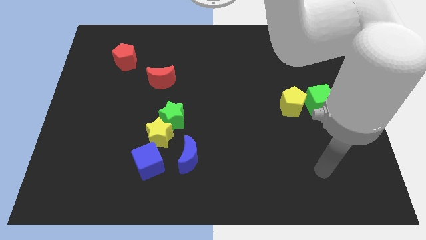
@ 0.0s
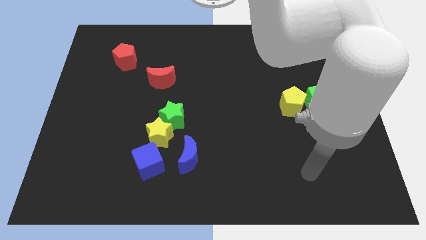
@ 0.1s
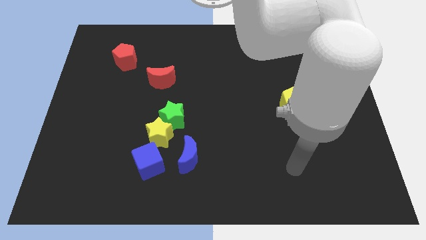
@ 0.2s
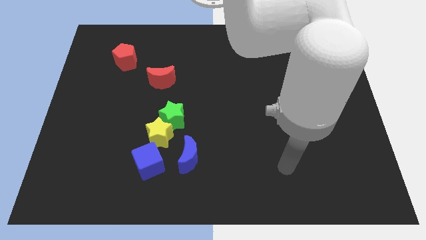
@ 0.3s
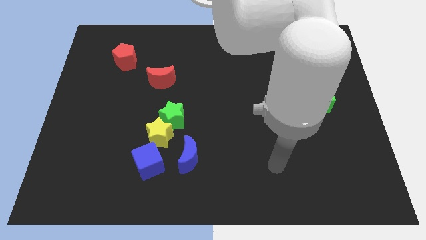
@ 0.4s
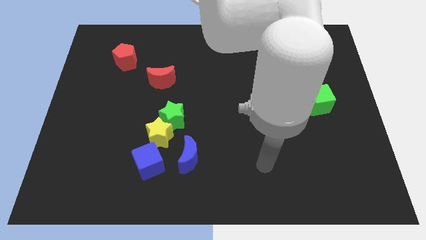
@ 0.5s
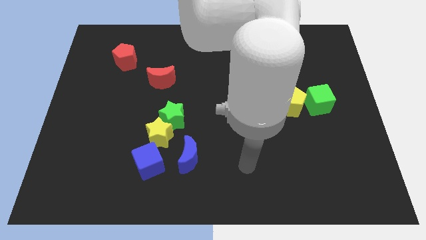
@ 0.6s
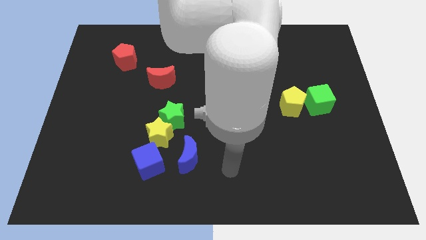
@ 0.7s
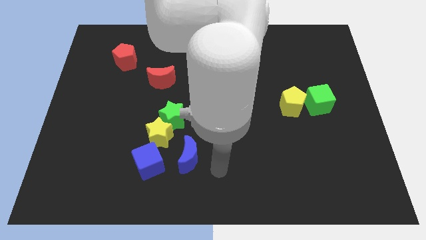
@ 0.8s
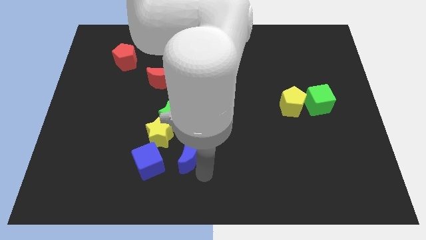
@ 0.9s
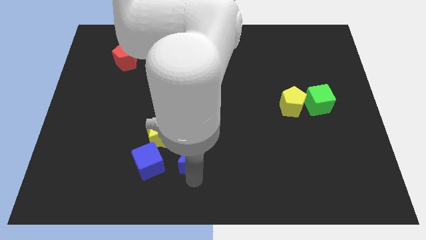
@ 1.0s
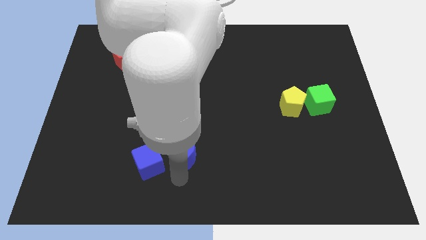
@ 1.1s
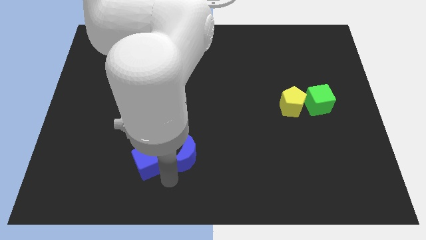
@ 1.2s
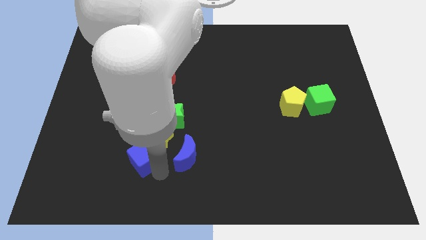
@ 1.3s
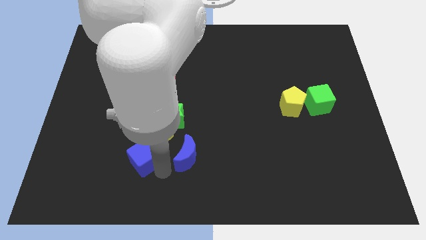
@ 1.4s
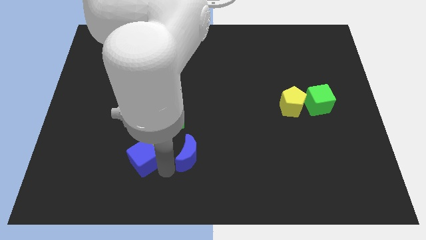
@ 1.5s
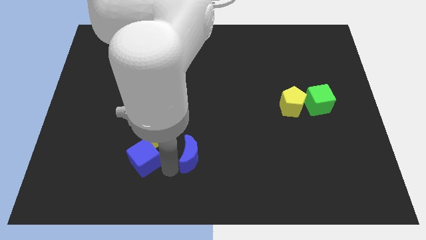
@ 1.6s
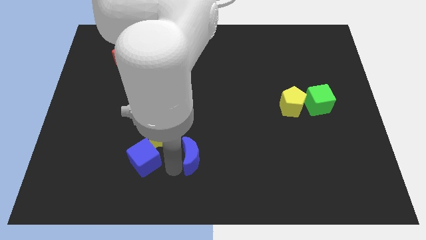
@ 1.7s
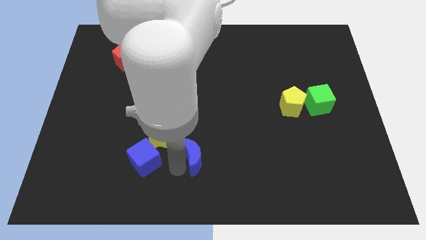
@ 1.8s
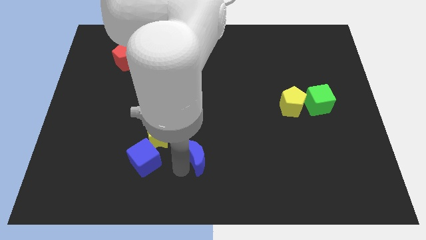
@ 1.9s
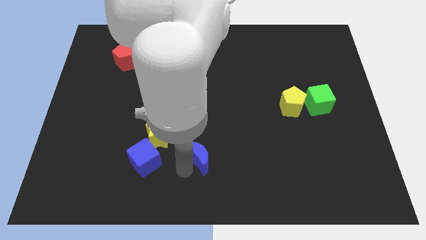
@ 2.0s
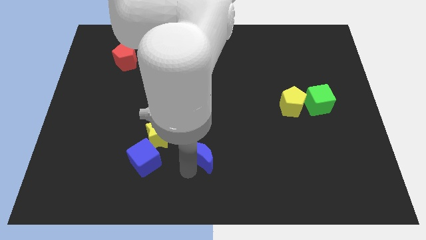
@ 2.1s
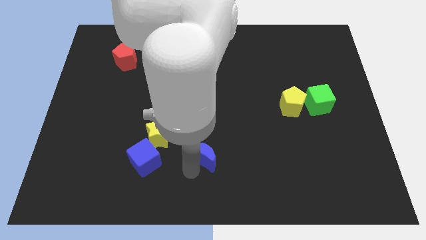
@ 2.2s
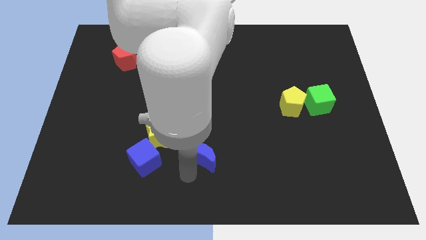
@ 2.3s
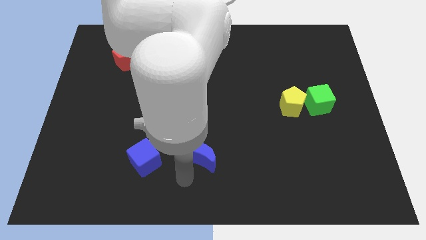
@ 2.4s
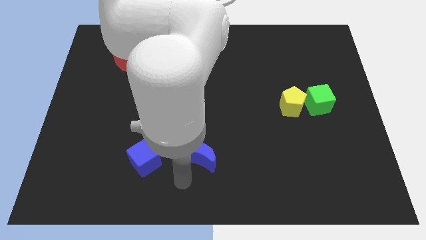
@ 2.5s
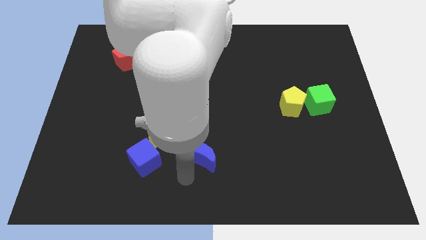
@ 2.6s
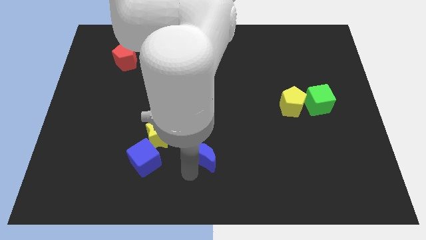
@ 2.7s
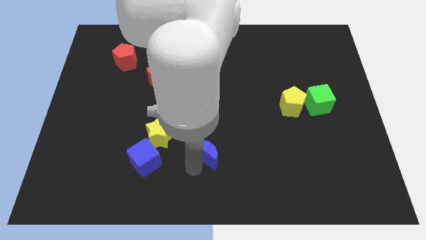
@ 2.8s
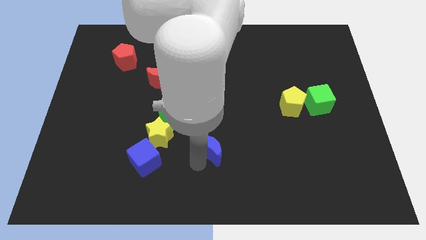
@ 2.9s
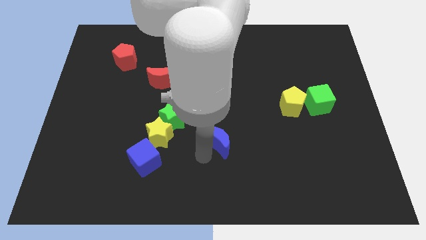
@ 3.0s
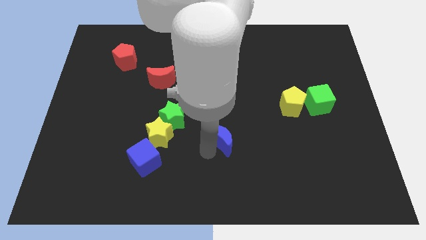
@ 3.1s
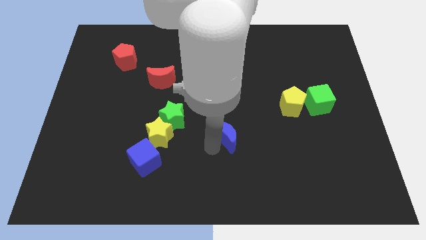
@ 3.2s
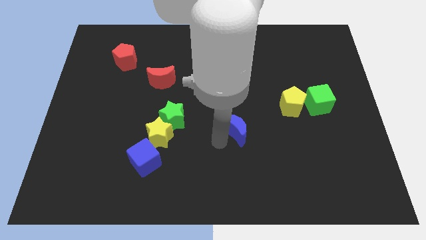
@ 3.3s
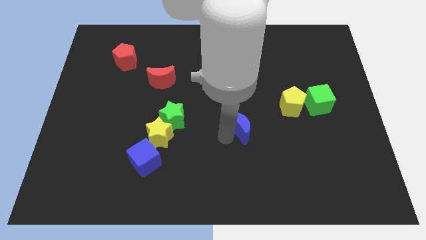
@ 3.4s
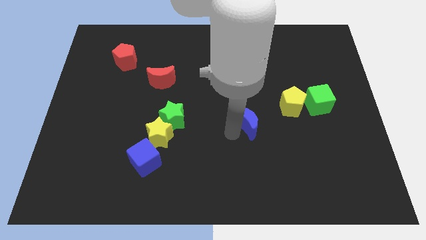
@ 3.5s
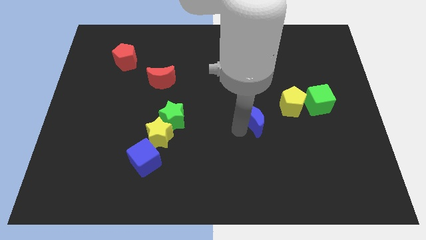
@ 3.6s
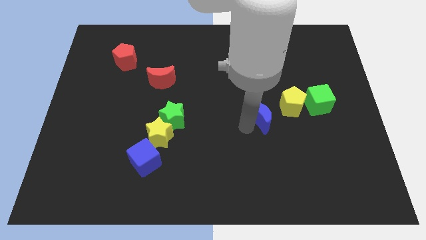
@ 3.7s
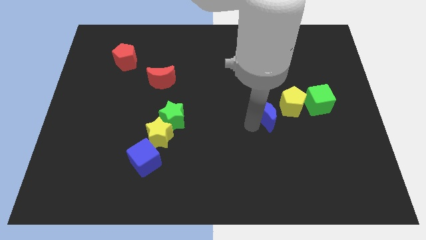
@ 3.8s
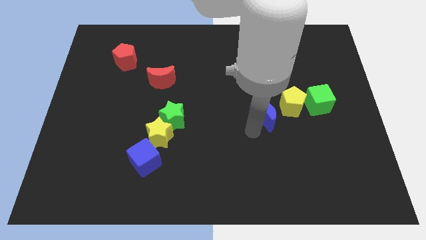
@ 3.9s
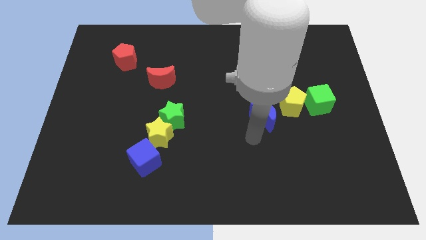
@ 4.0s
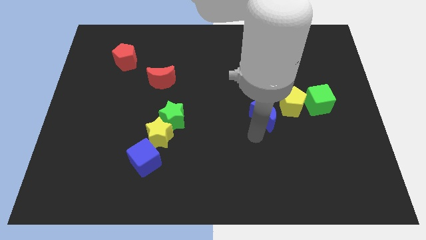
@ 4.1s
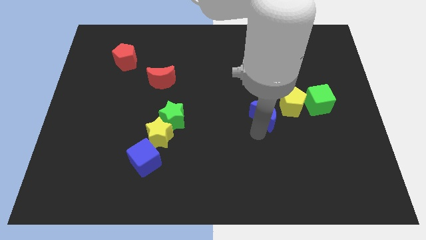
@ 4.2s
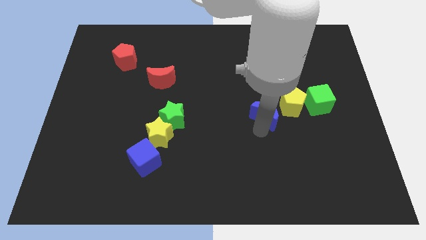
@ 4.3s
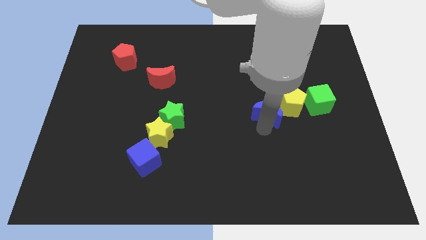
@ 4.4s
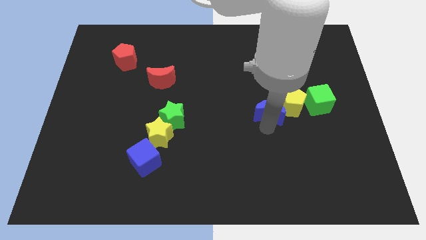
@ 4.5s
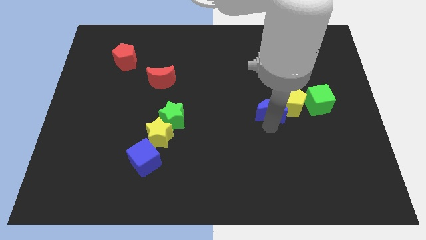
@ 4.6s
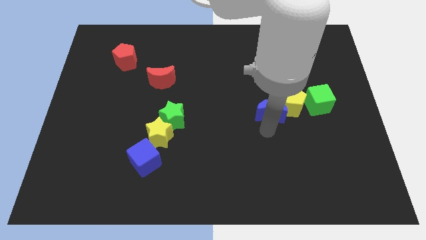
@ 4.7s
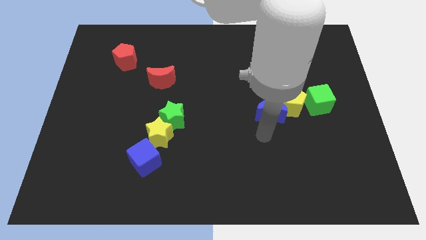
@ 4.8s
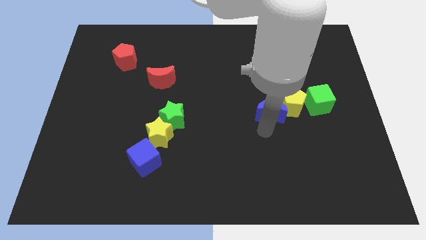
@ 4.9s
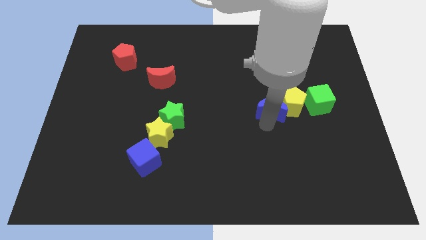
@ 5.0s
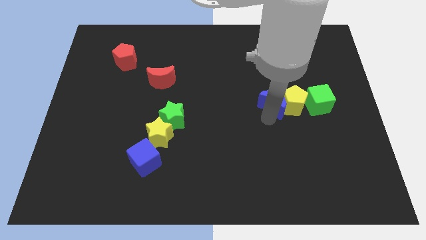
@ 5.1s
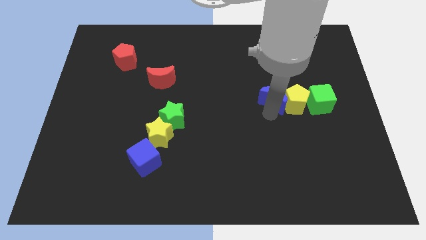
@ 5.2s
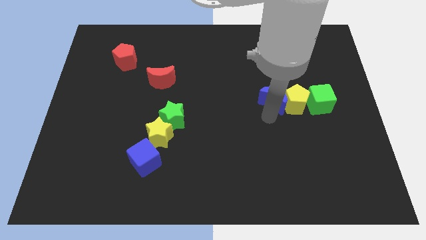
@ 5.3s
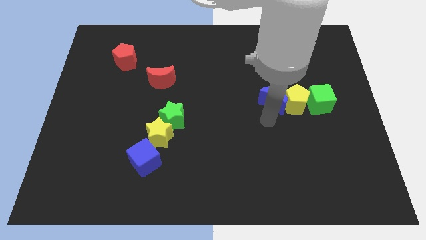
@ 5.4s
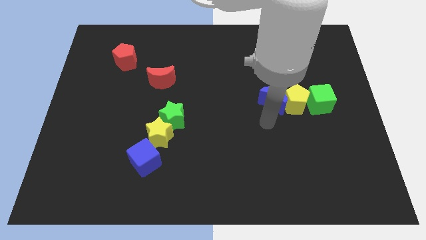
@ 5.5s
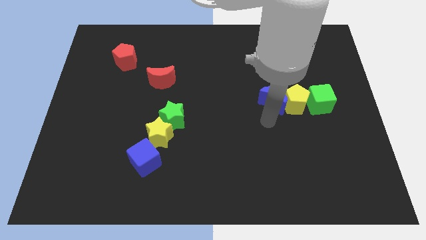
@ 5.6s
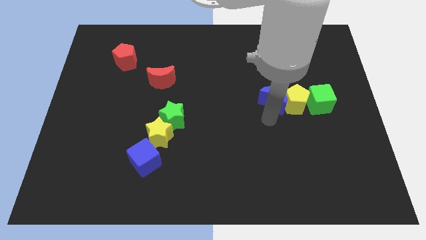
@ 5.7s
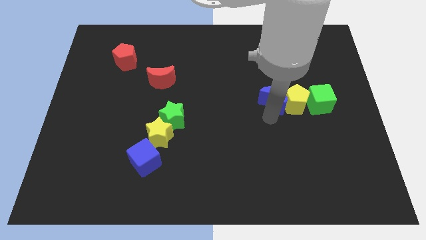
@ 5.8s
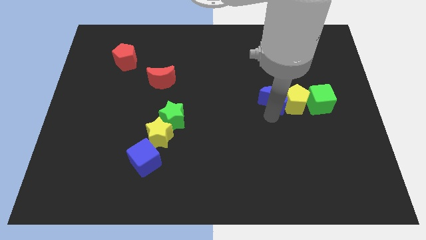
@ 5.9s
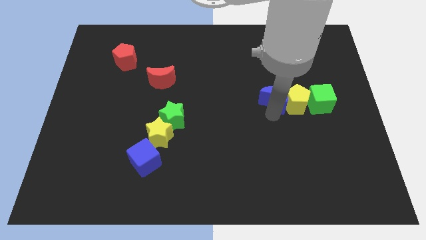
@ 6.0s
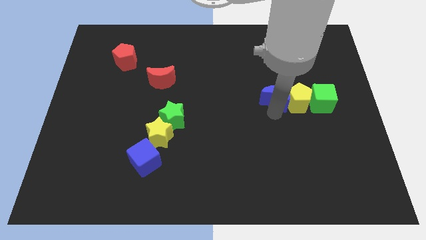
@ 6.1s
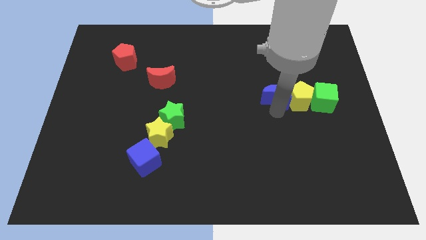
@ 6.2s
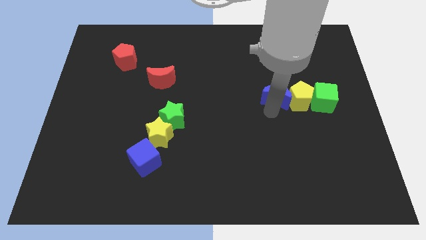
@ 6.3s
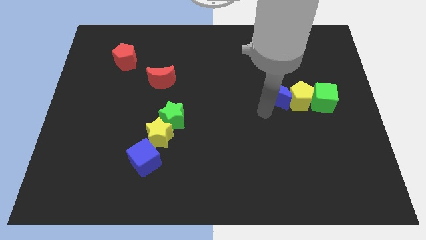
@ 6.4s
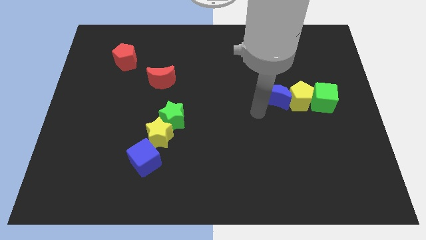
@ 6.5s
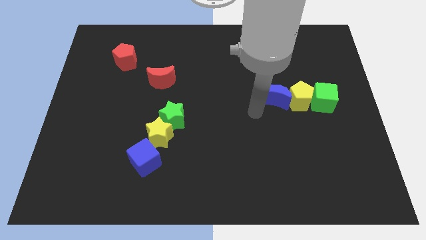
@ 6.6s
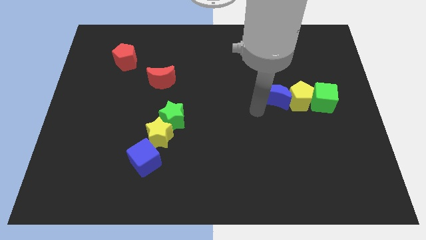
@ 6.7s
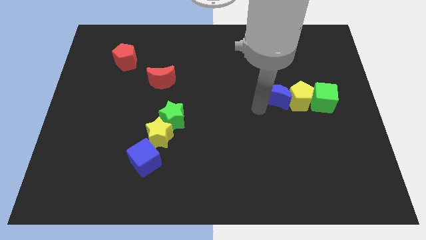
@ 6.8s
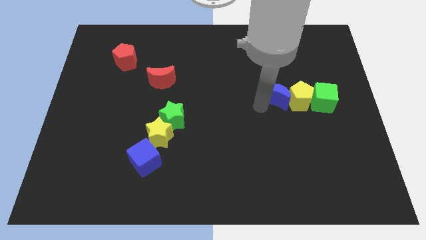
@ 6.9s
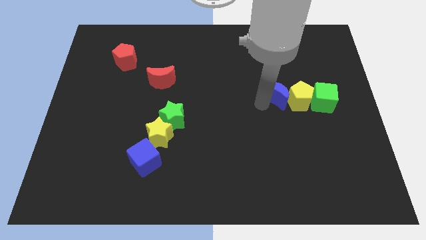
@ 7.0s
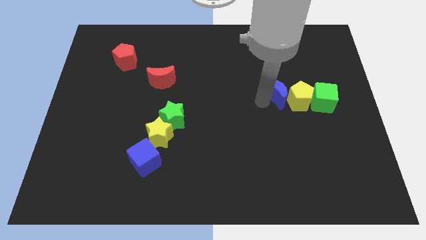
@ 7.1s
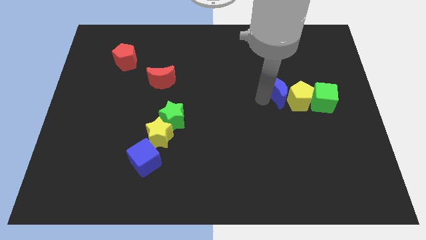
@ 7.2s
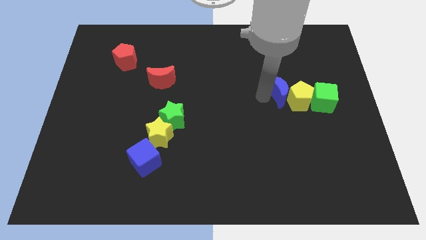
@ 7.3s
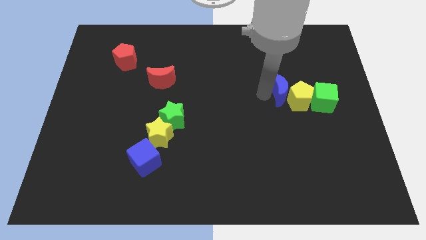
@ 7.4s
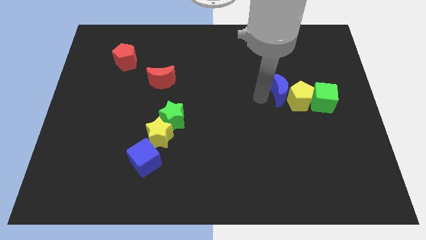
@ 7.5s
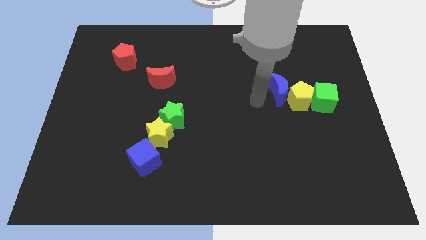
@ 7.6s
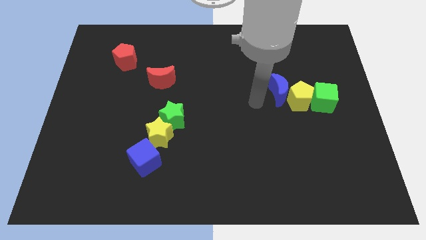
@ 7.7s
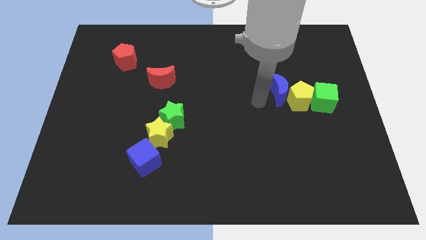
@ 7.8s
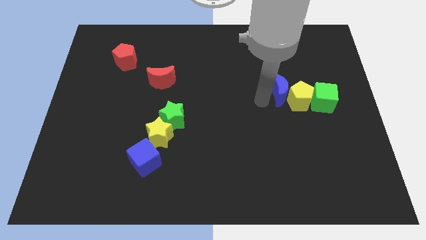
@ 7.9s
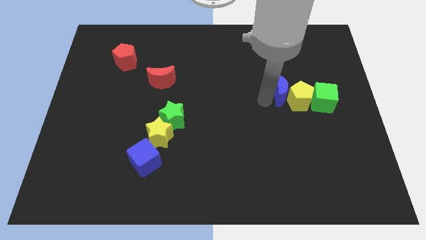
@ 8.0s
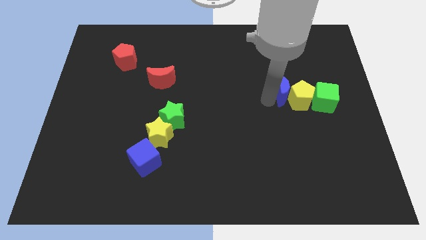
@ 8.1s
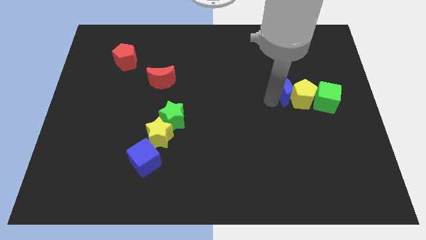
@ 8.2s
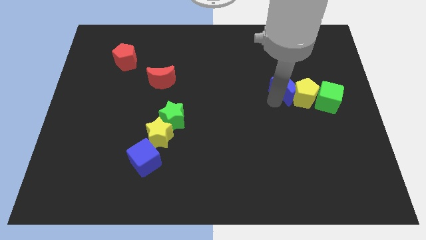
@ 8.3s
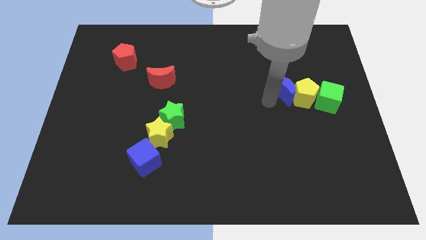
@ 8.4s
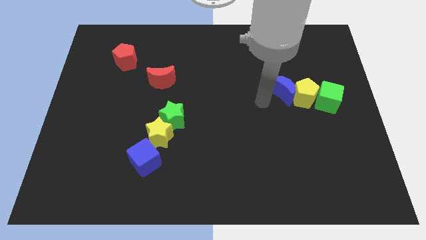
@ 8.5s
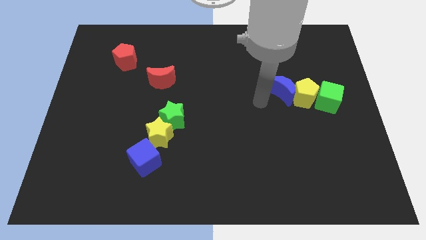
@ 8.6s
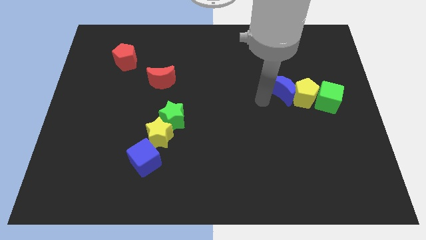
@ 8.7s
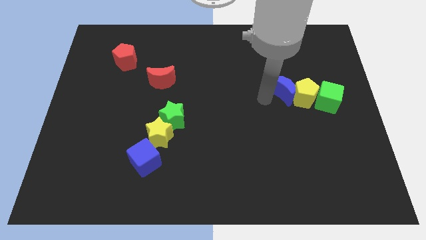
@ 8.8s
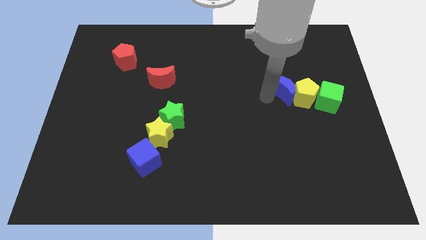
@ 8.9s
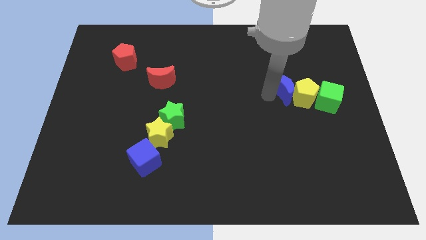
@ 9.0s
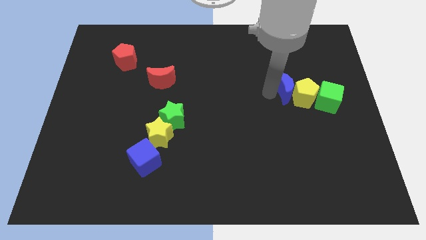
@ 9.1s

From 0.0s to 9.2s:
put the blue moon to the top left of the green cube
